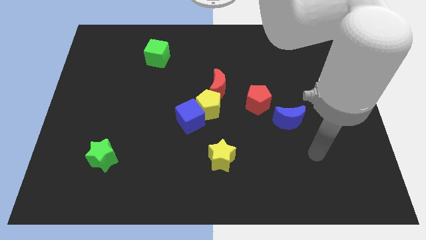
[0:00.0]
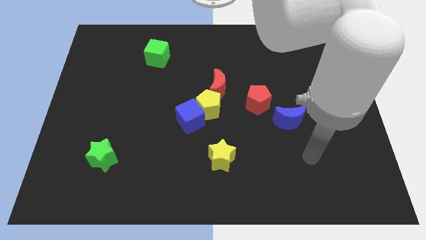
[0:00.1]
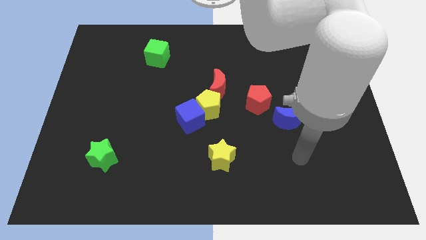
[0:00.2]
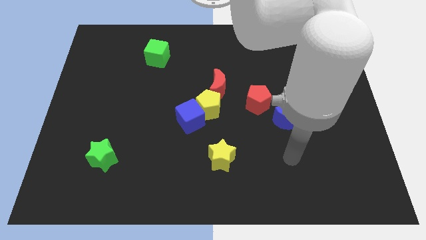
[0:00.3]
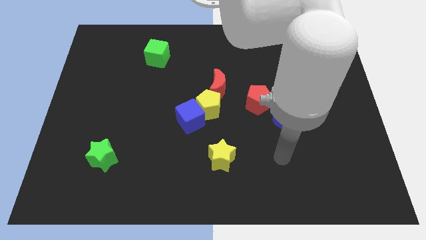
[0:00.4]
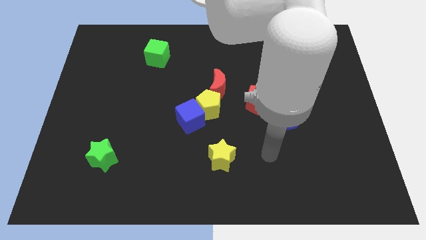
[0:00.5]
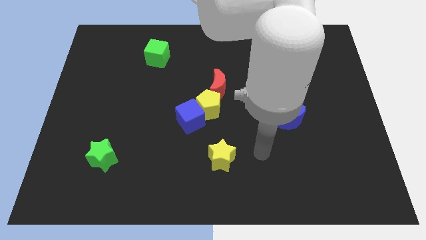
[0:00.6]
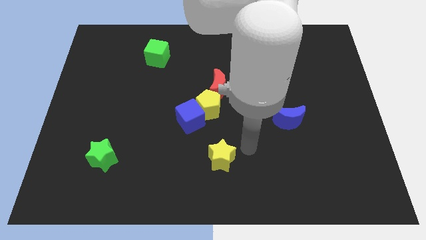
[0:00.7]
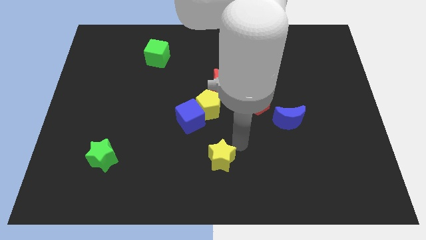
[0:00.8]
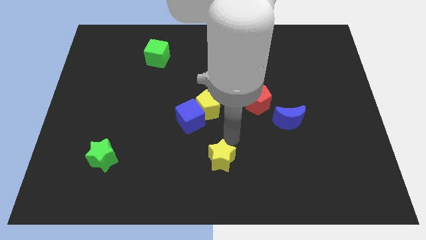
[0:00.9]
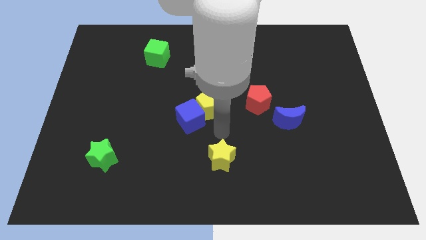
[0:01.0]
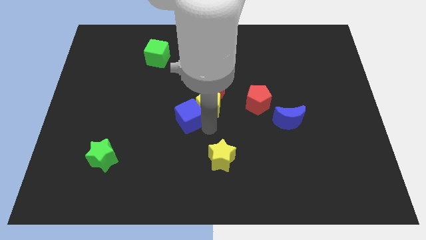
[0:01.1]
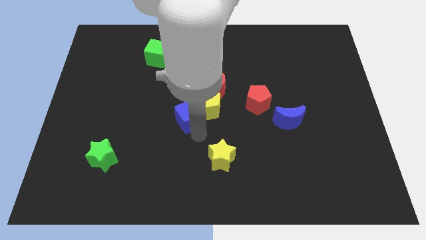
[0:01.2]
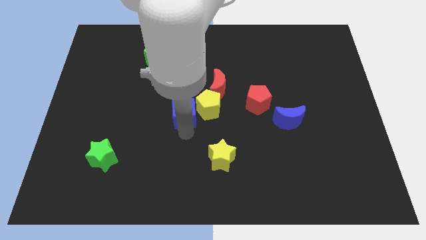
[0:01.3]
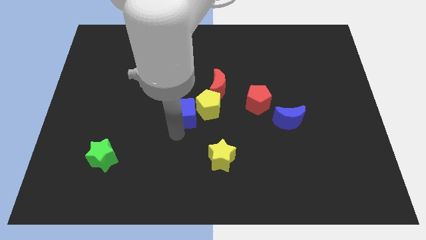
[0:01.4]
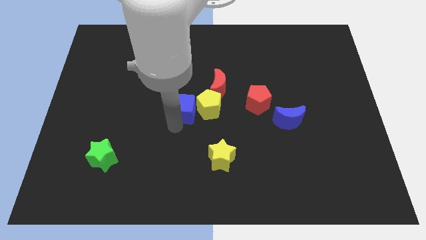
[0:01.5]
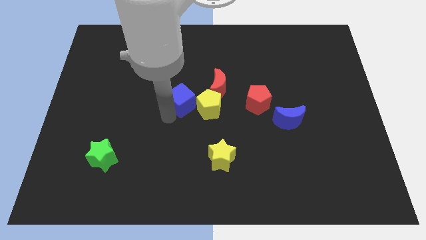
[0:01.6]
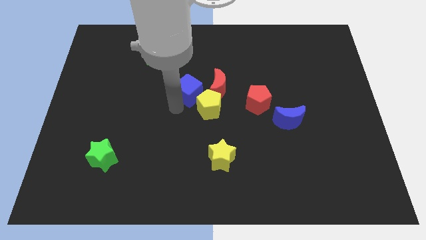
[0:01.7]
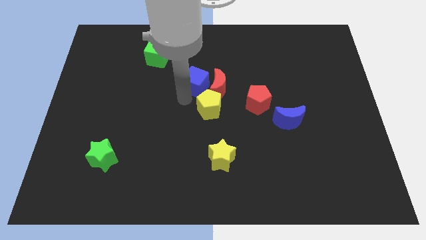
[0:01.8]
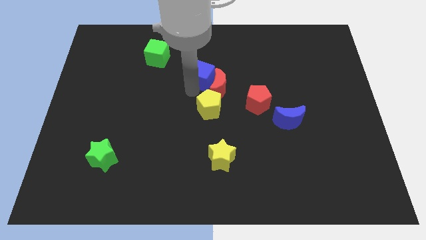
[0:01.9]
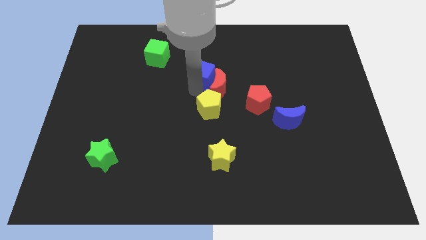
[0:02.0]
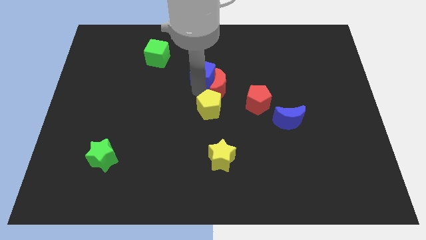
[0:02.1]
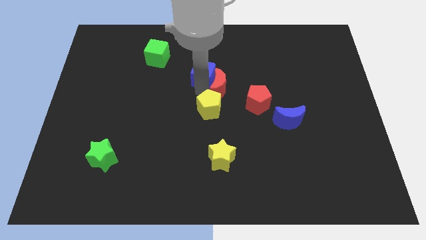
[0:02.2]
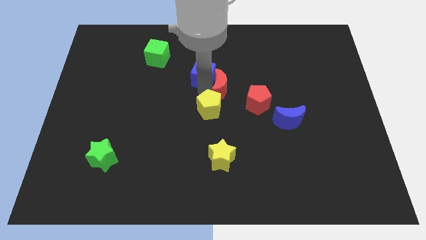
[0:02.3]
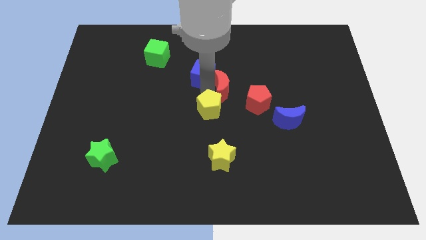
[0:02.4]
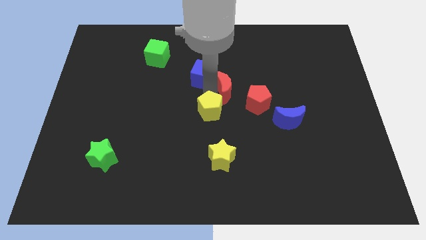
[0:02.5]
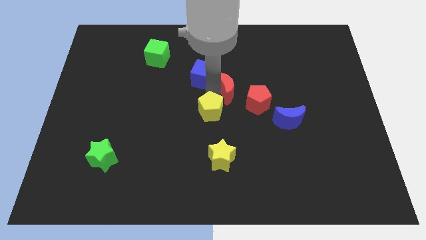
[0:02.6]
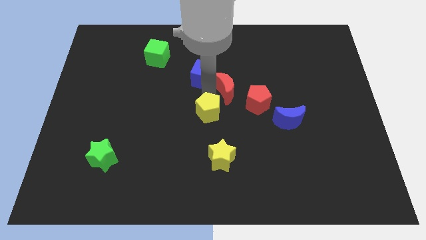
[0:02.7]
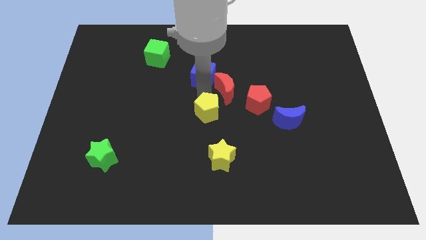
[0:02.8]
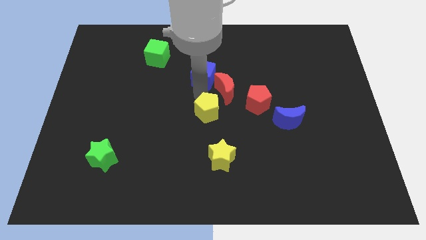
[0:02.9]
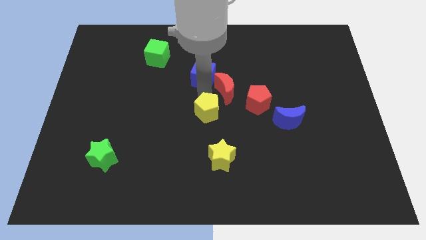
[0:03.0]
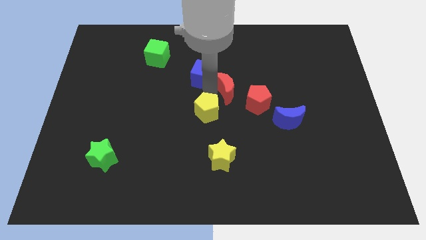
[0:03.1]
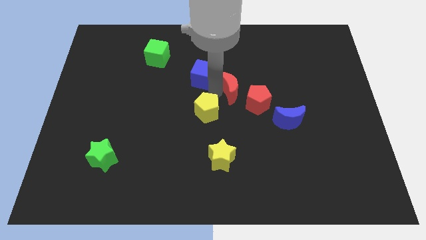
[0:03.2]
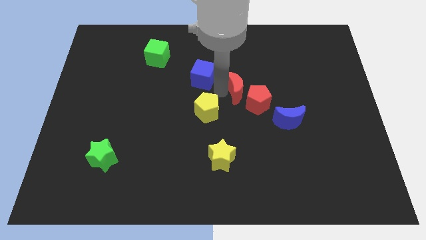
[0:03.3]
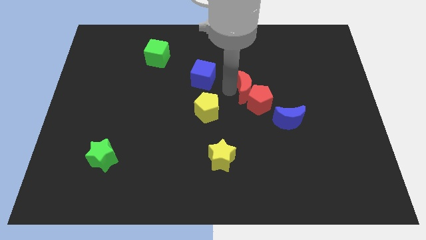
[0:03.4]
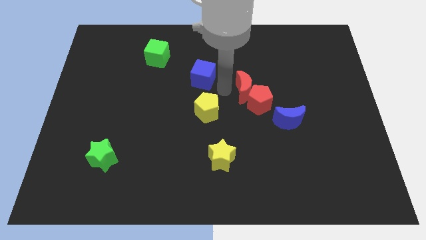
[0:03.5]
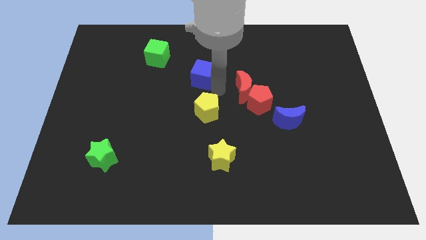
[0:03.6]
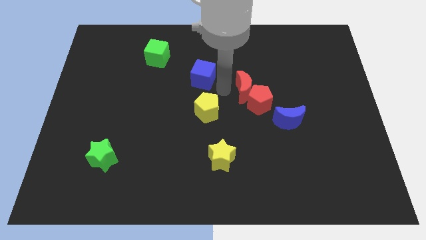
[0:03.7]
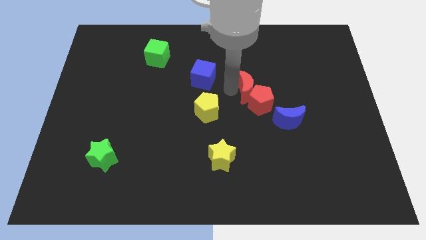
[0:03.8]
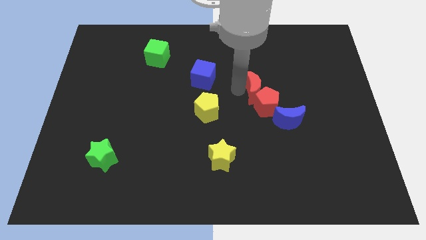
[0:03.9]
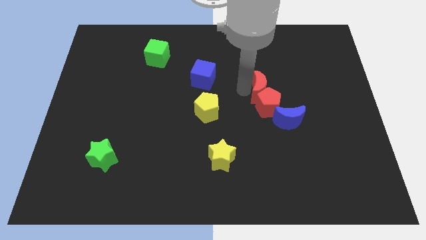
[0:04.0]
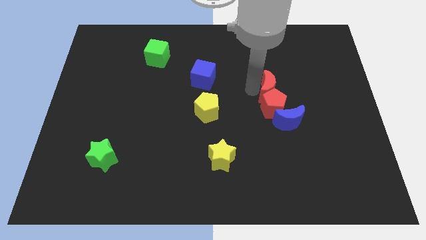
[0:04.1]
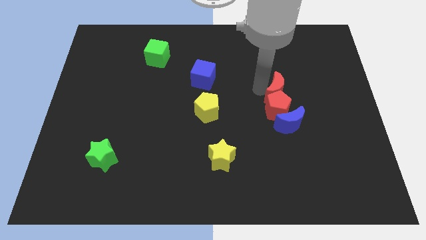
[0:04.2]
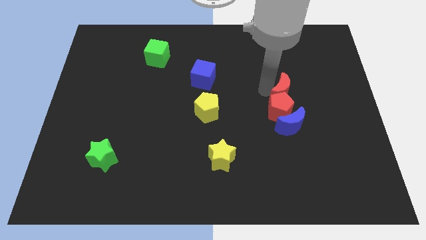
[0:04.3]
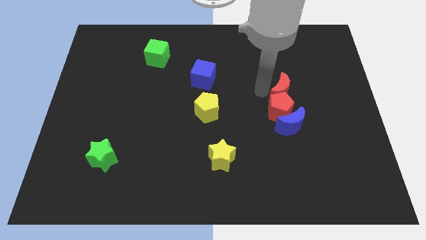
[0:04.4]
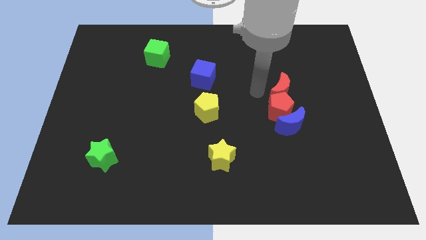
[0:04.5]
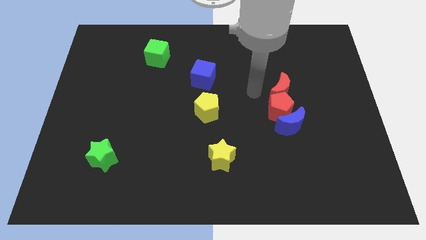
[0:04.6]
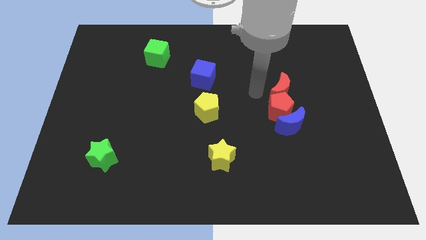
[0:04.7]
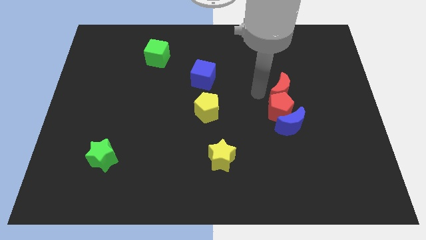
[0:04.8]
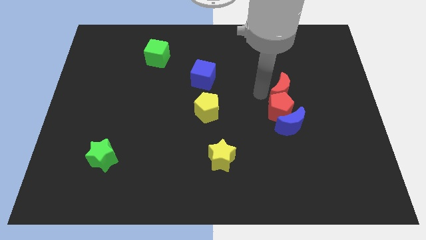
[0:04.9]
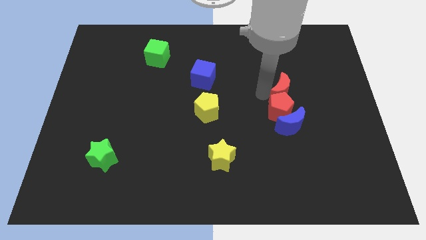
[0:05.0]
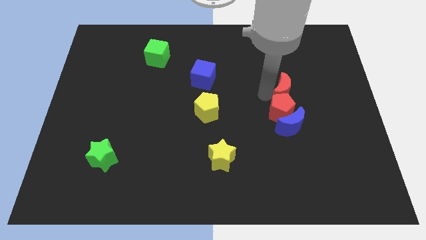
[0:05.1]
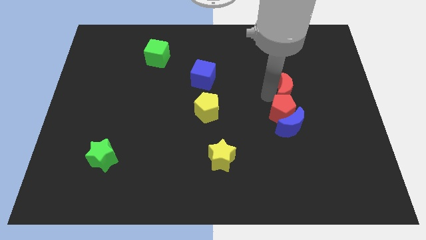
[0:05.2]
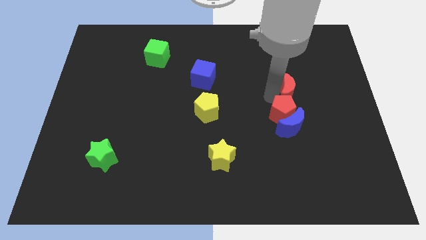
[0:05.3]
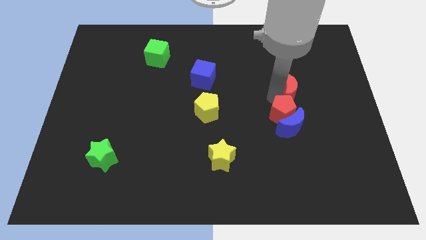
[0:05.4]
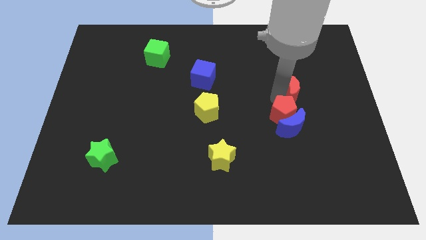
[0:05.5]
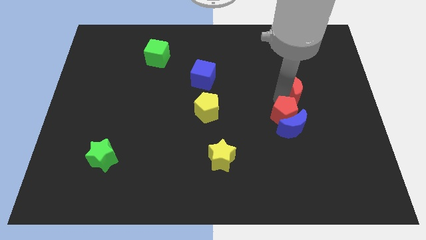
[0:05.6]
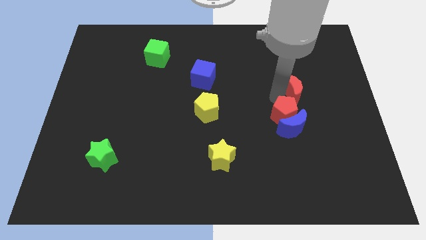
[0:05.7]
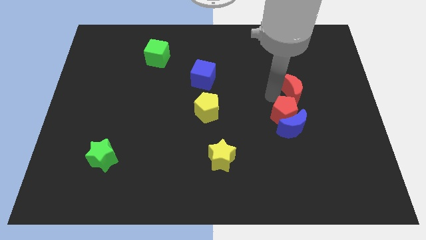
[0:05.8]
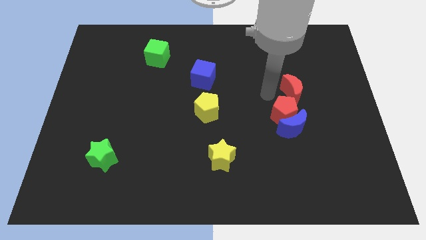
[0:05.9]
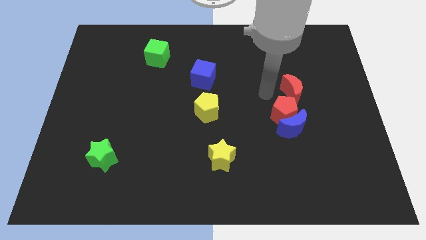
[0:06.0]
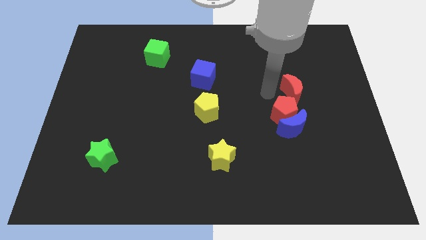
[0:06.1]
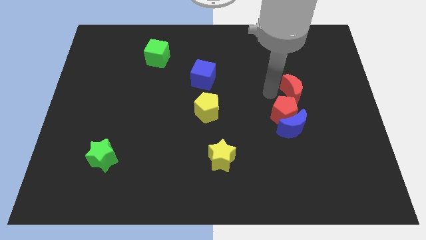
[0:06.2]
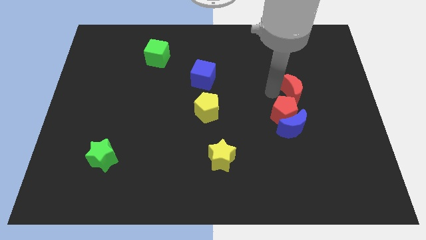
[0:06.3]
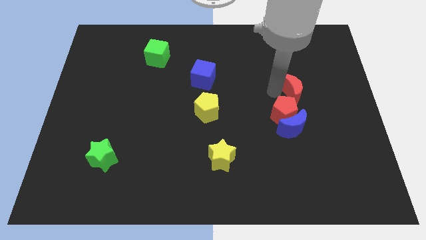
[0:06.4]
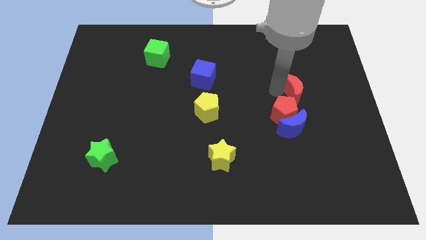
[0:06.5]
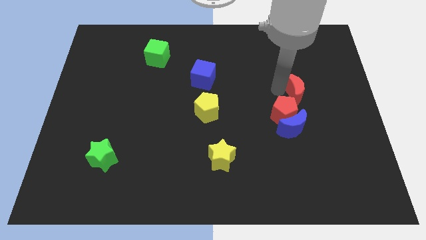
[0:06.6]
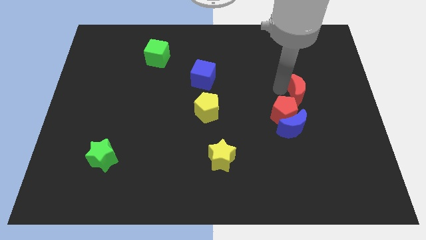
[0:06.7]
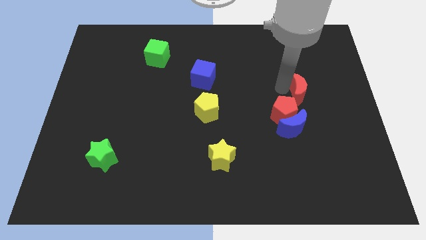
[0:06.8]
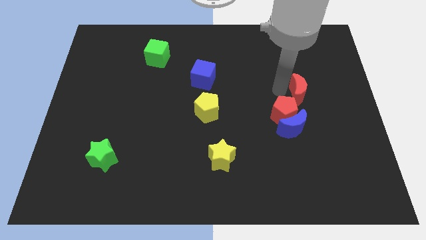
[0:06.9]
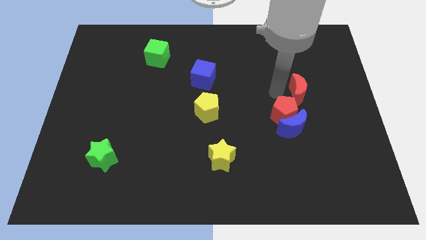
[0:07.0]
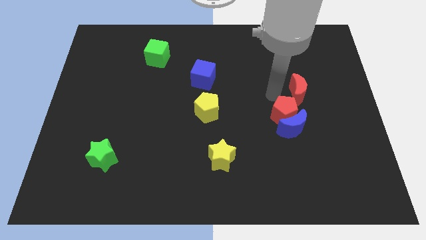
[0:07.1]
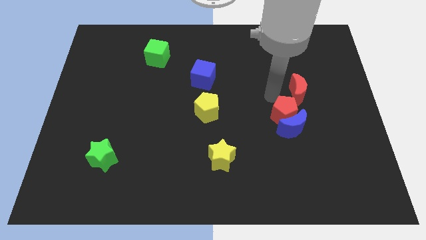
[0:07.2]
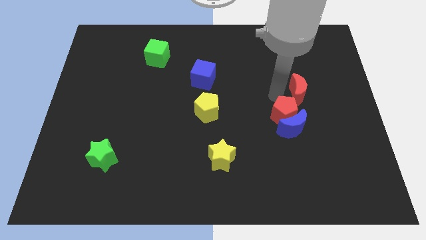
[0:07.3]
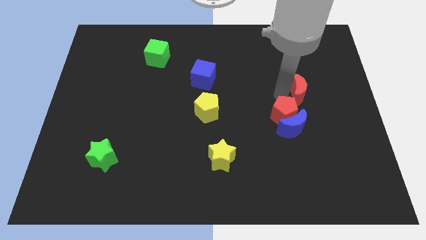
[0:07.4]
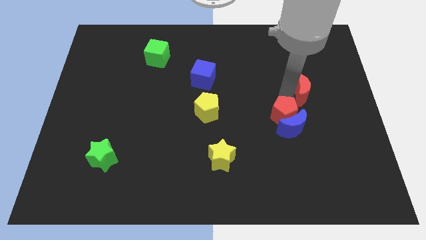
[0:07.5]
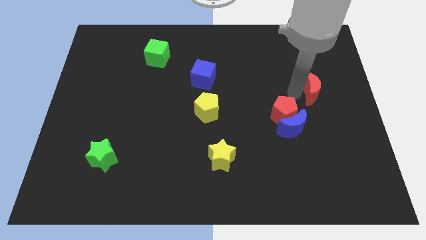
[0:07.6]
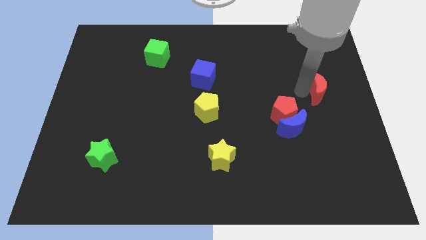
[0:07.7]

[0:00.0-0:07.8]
put the red moon to the center right
